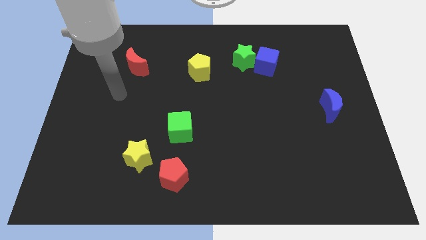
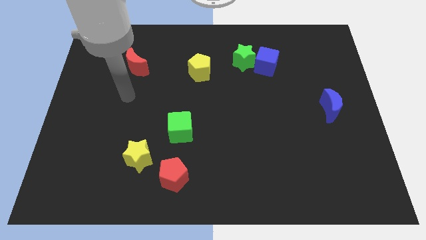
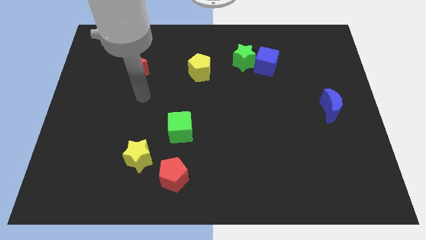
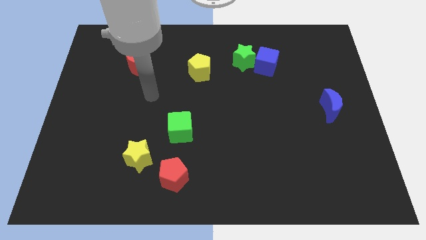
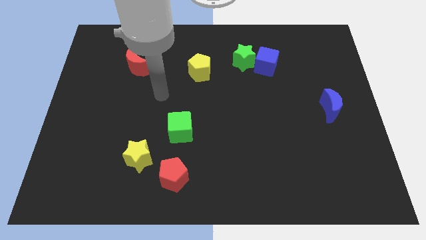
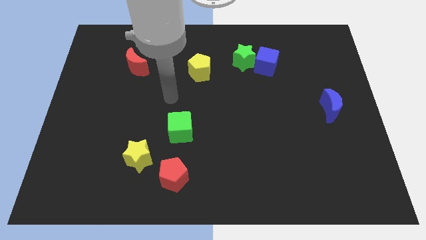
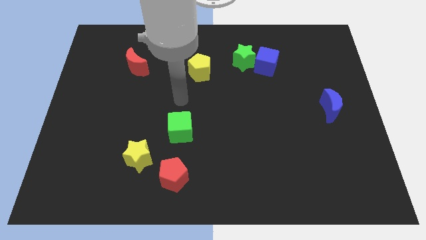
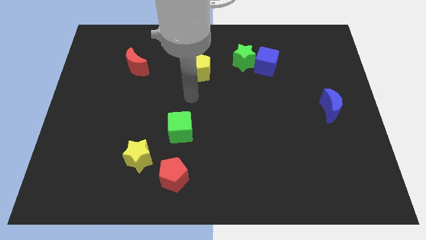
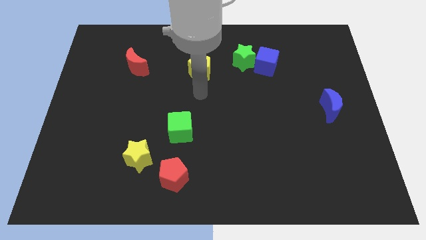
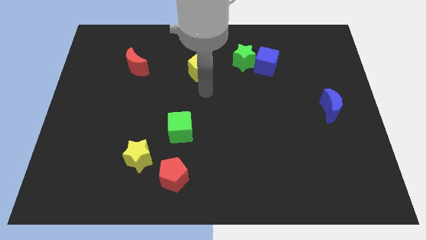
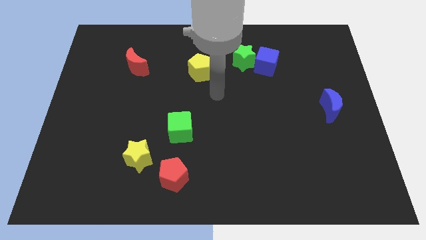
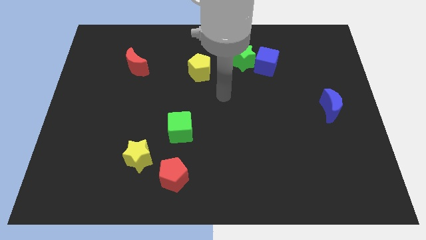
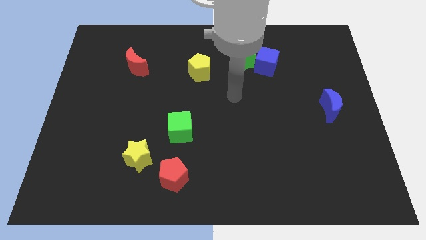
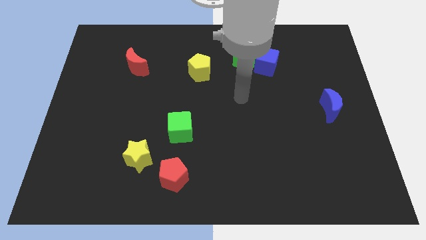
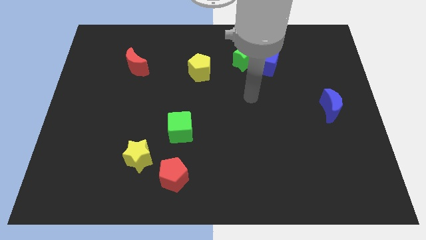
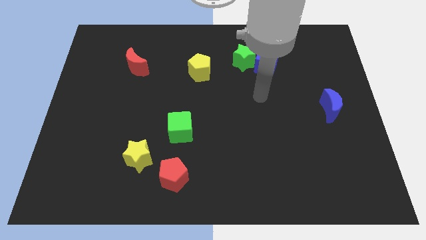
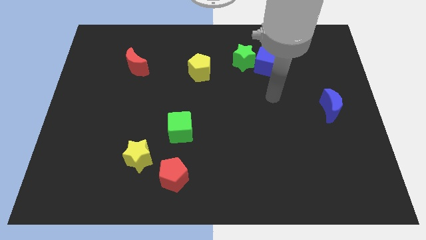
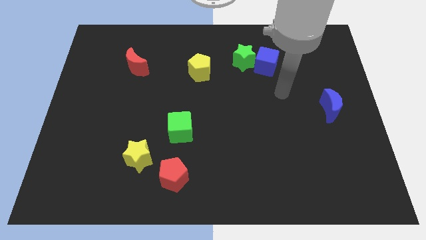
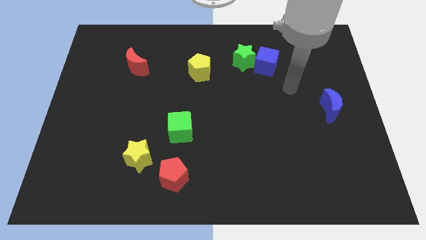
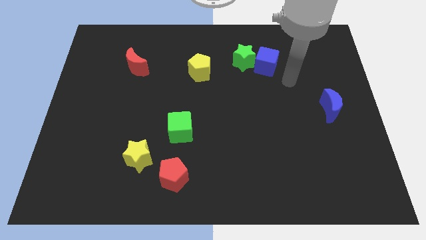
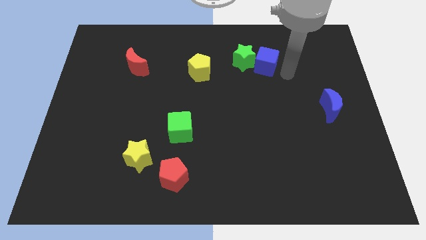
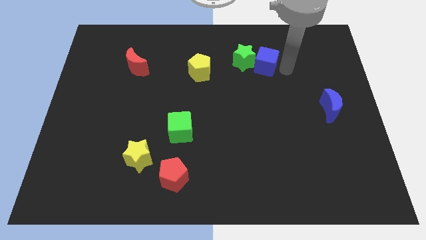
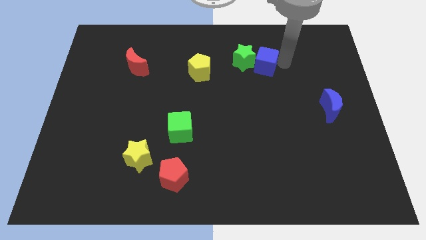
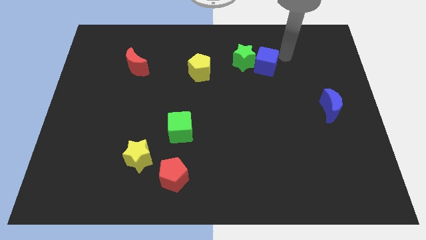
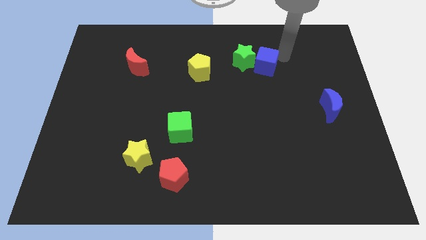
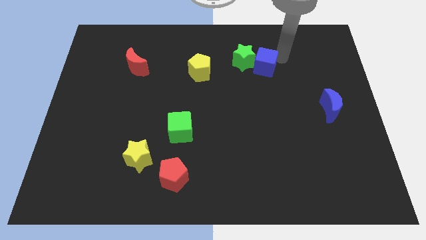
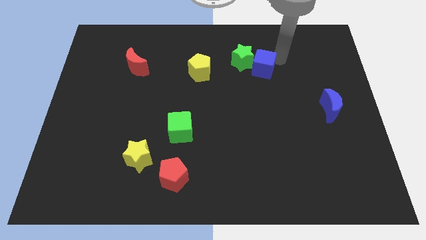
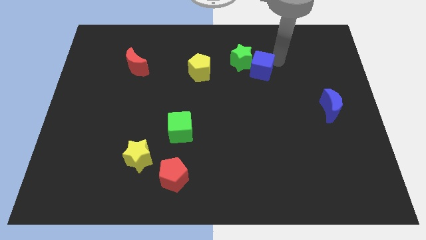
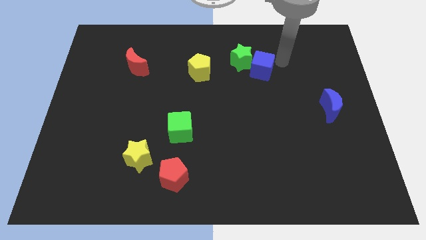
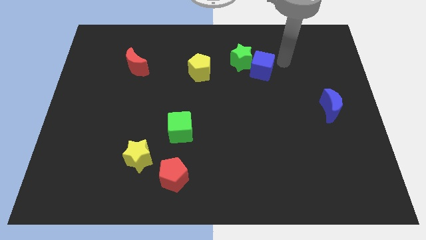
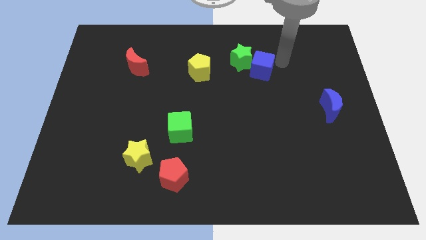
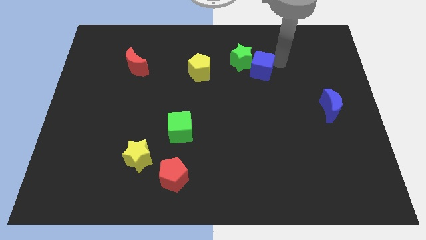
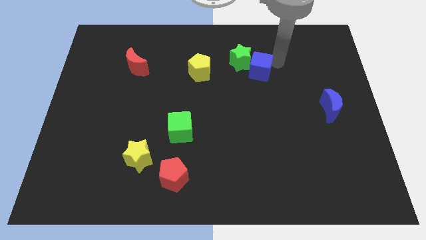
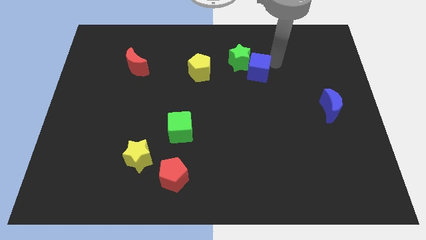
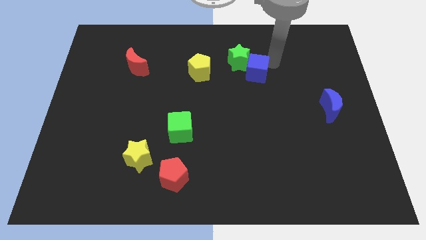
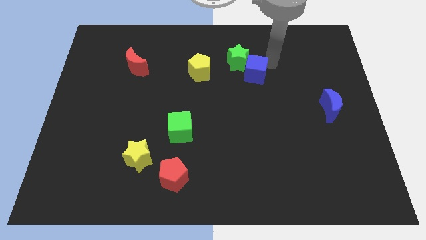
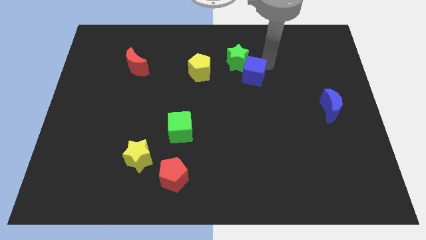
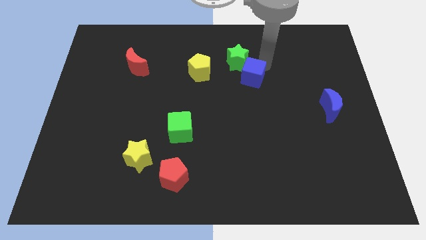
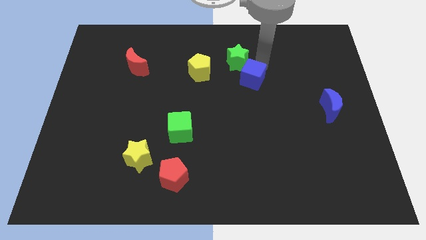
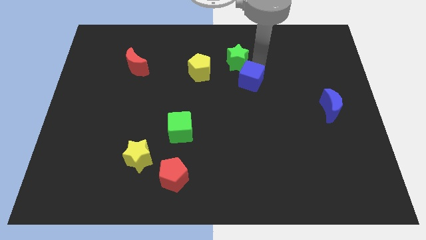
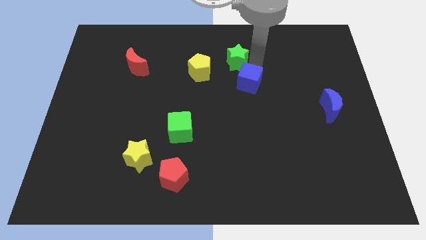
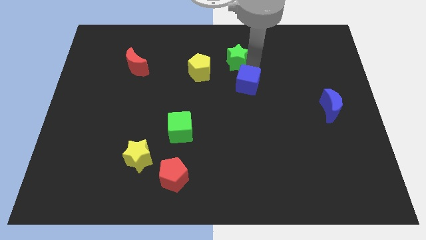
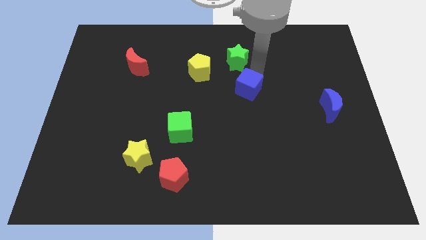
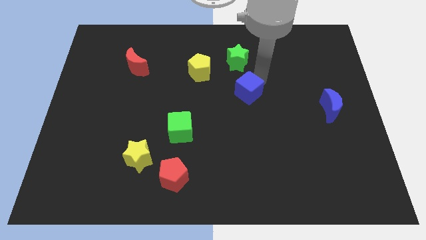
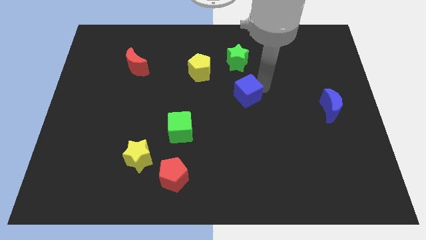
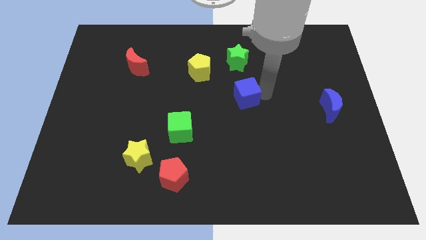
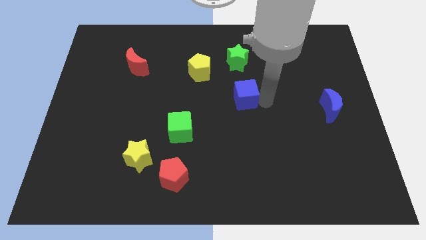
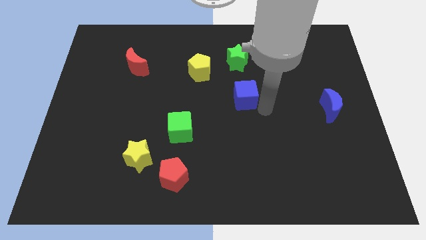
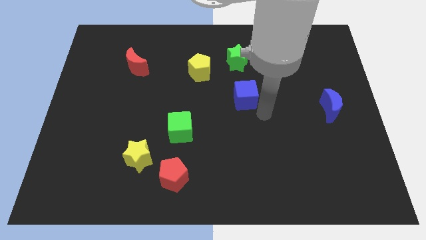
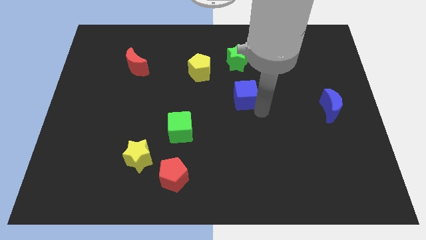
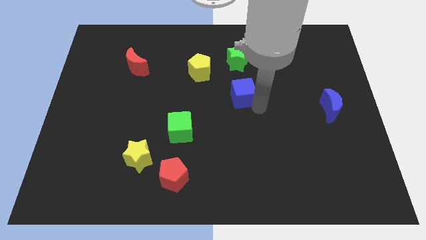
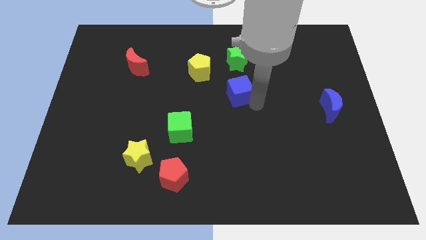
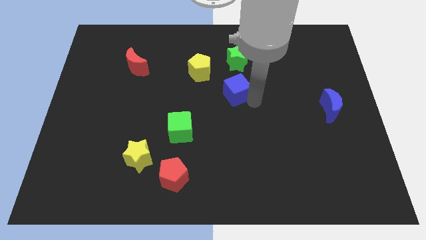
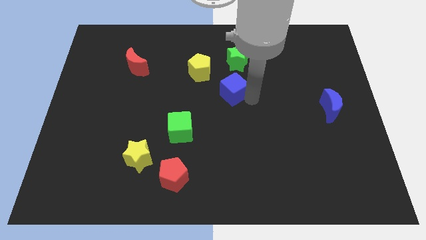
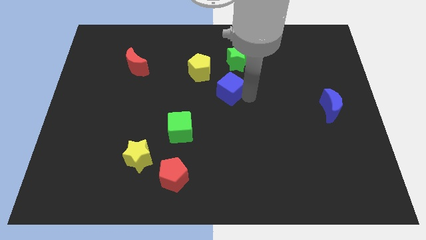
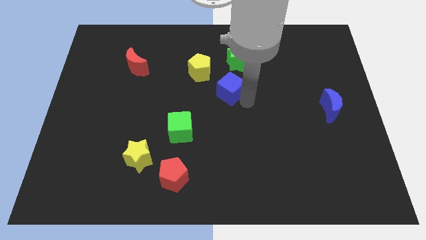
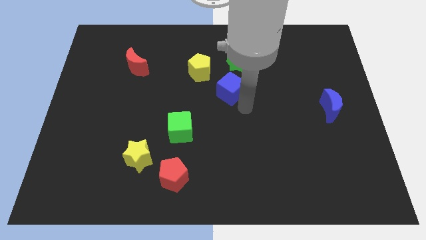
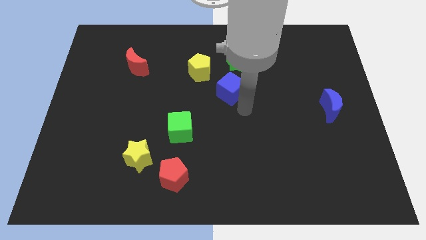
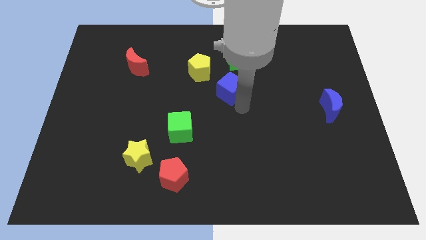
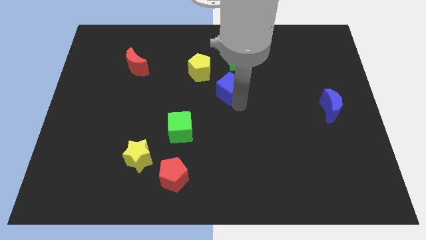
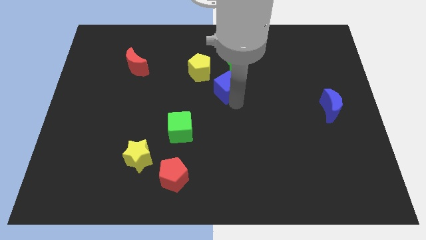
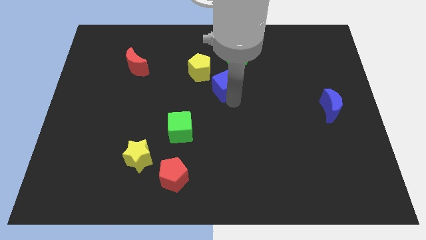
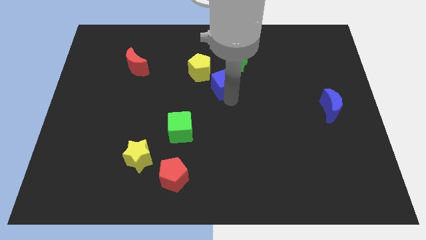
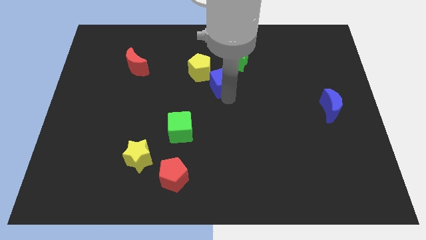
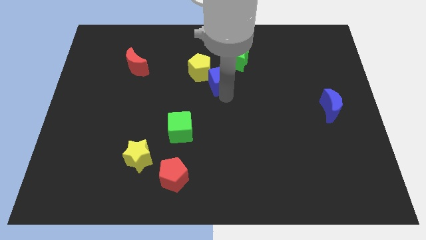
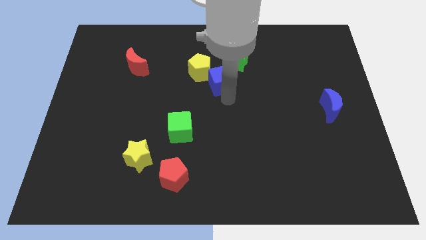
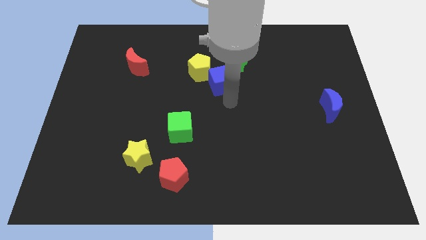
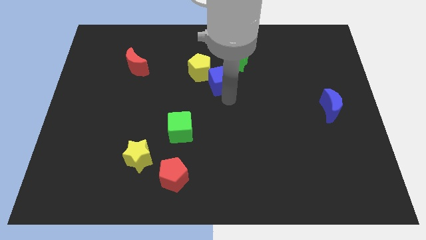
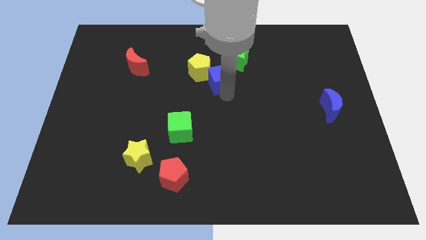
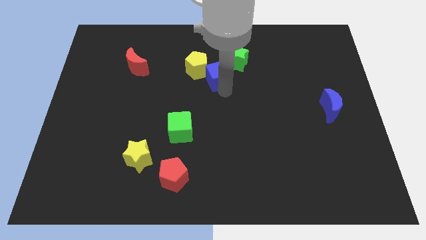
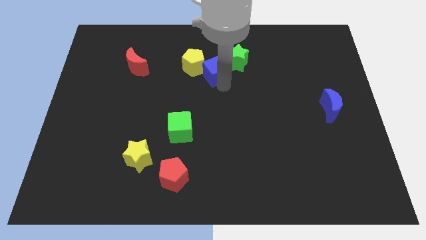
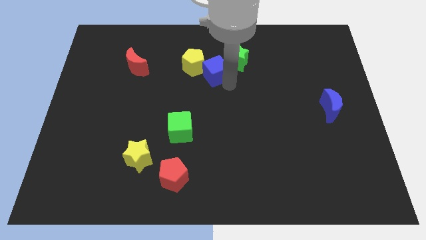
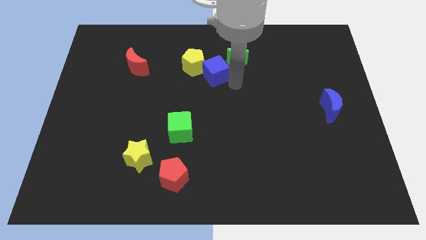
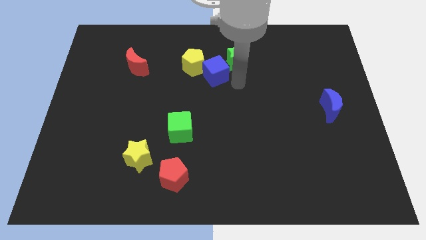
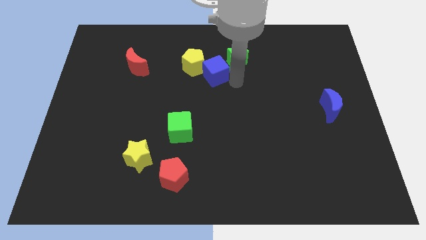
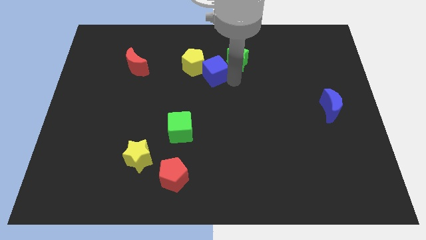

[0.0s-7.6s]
move the blue cube close to the yellow pentagon

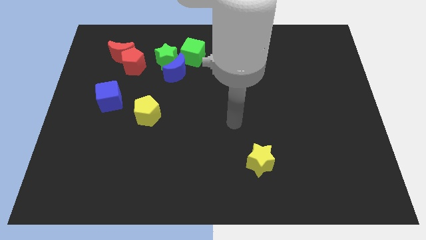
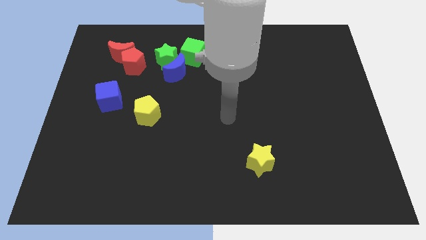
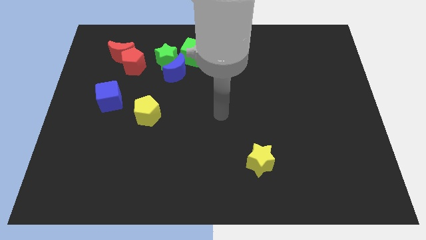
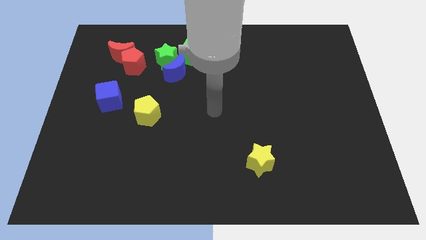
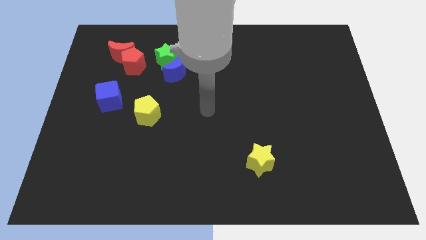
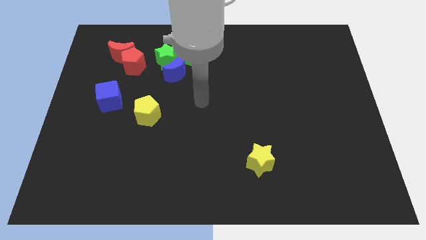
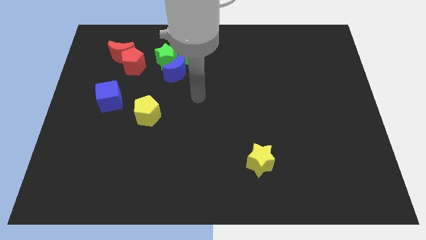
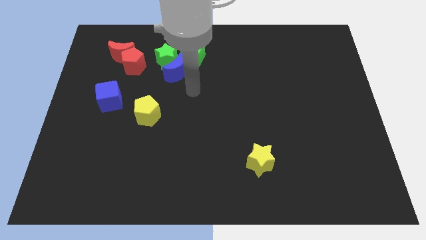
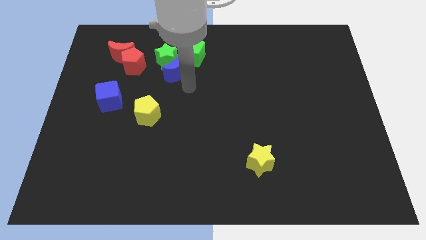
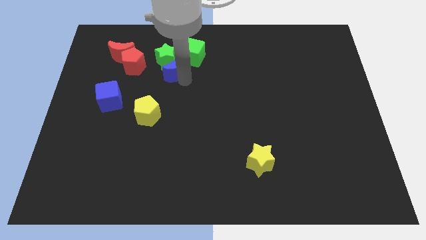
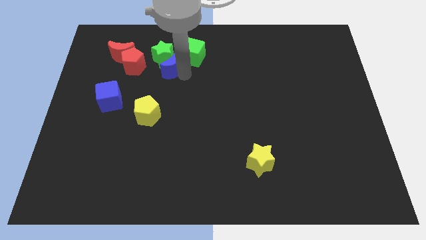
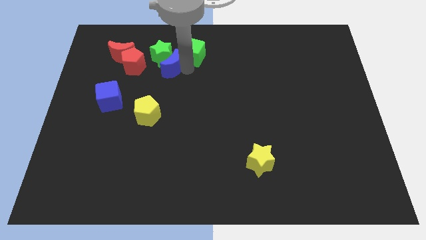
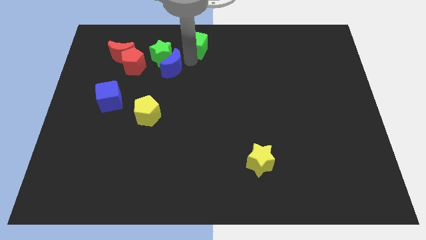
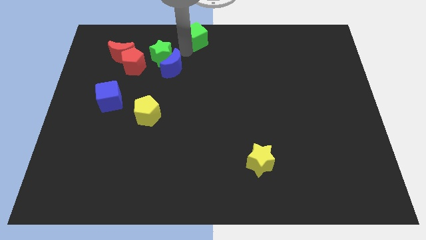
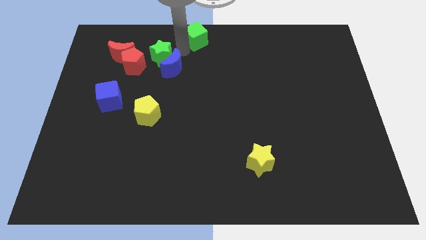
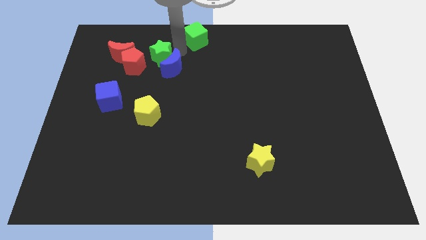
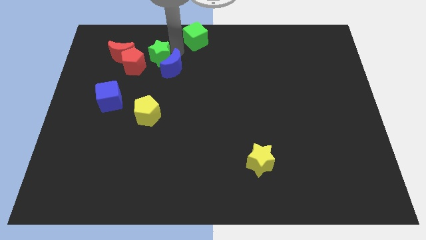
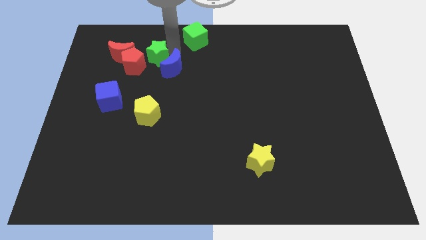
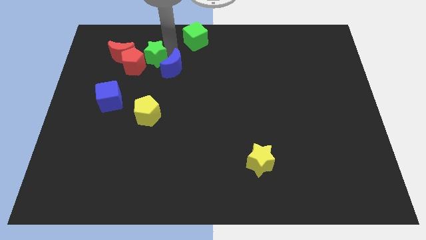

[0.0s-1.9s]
put the green star next to the red pentagon
